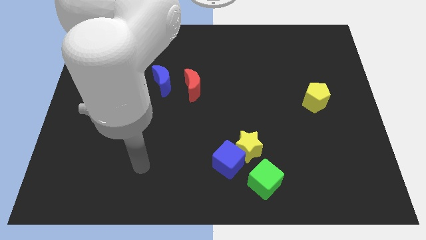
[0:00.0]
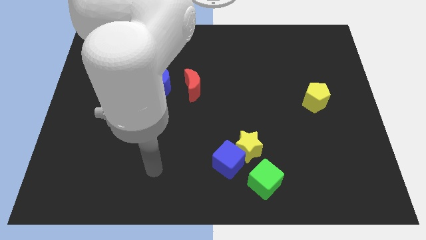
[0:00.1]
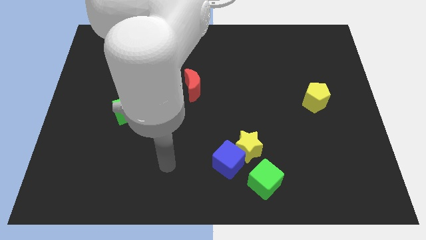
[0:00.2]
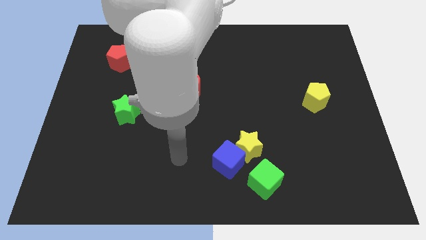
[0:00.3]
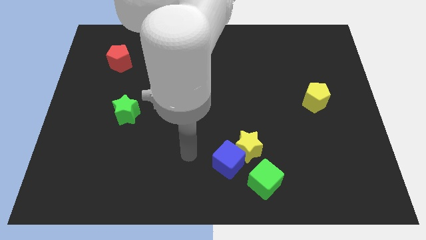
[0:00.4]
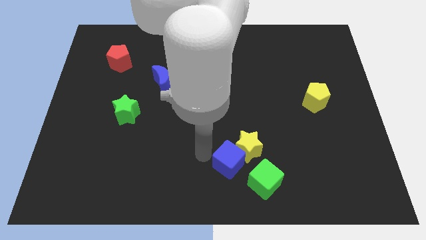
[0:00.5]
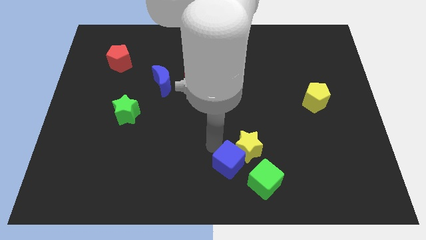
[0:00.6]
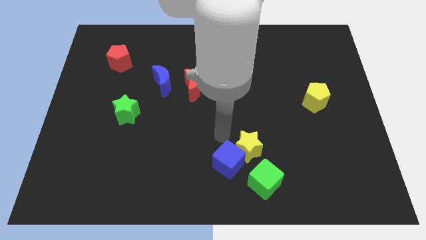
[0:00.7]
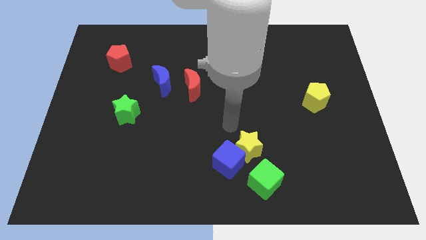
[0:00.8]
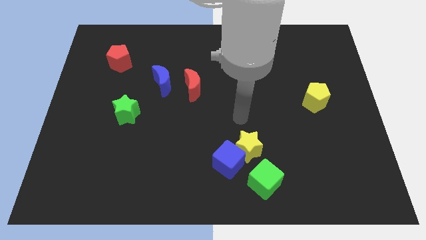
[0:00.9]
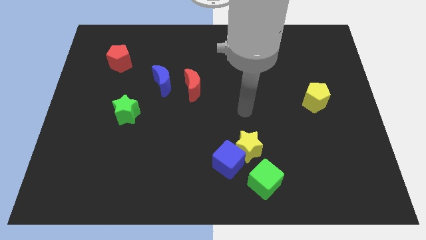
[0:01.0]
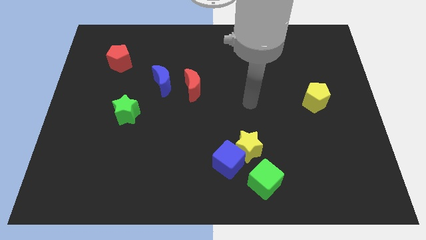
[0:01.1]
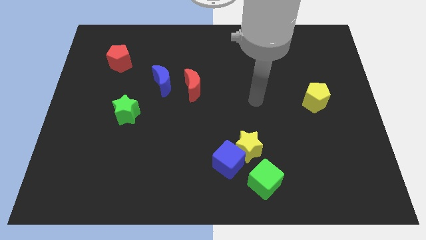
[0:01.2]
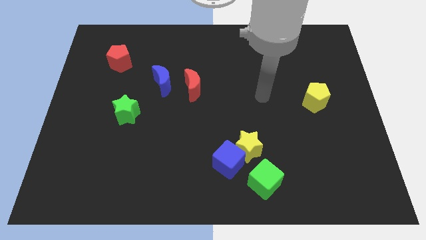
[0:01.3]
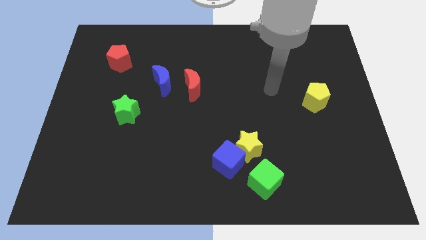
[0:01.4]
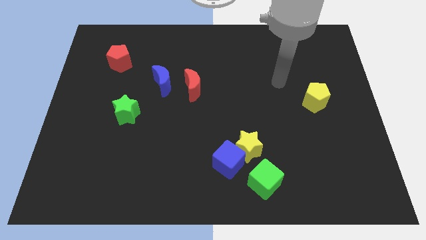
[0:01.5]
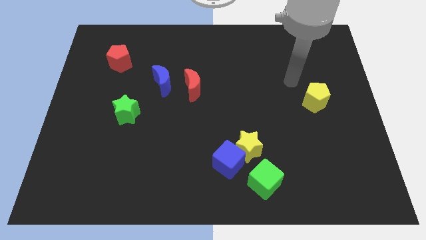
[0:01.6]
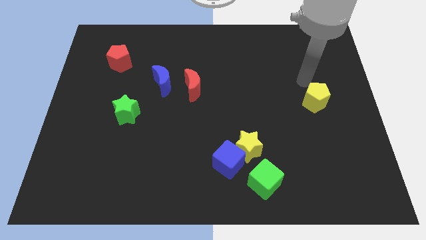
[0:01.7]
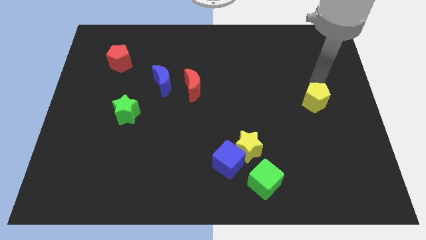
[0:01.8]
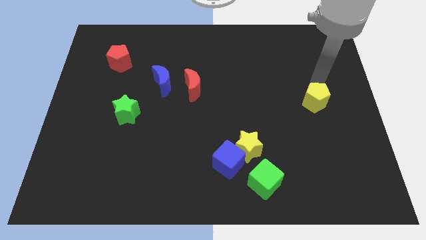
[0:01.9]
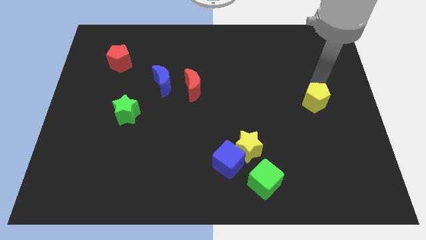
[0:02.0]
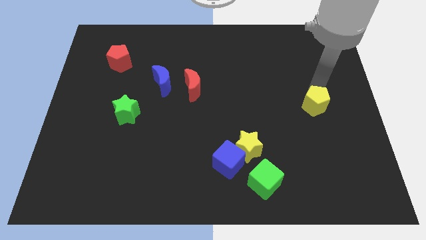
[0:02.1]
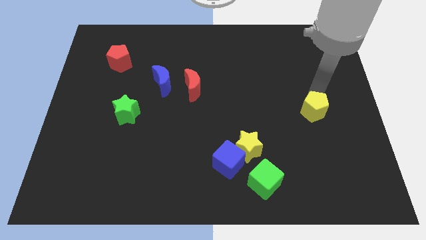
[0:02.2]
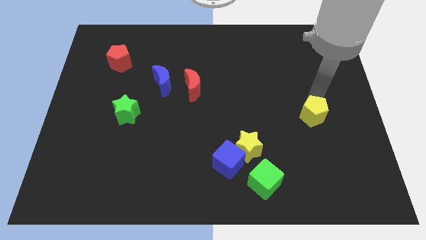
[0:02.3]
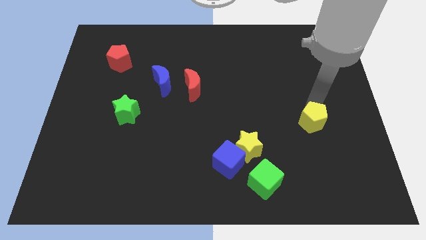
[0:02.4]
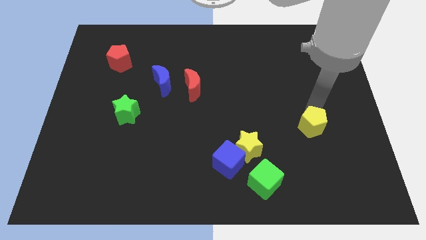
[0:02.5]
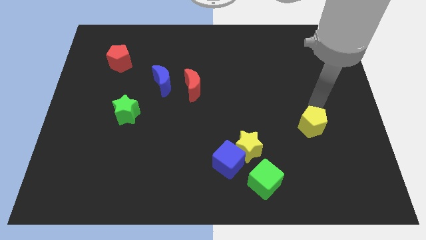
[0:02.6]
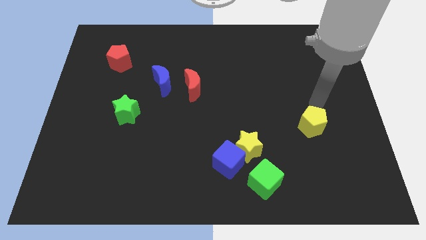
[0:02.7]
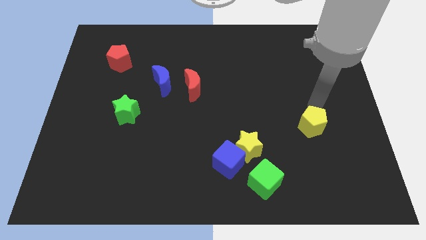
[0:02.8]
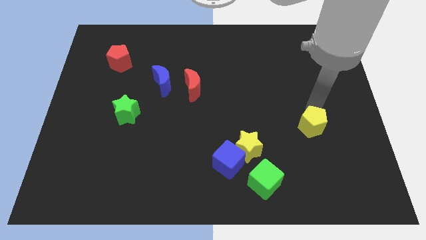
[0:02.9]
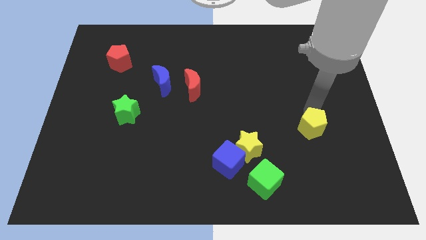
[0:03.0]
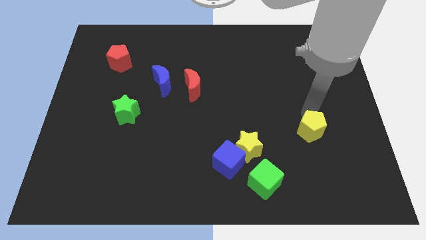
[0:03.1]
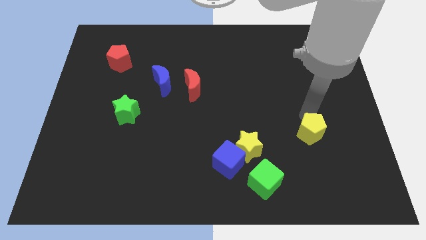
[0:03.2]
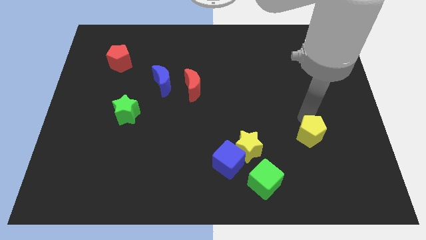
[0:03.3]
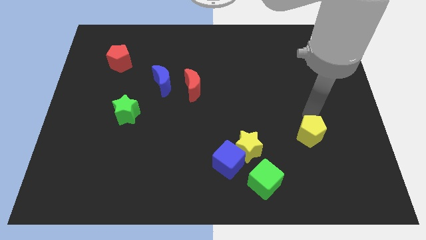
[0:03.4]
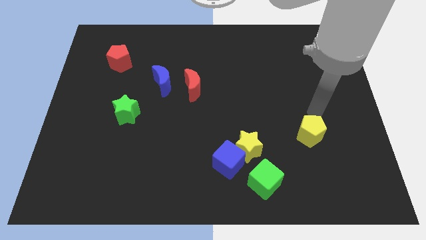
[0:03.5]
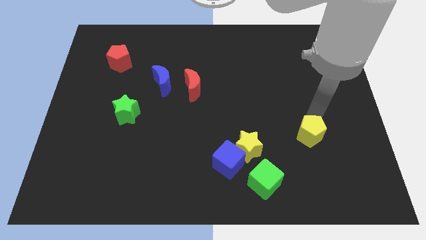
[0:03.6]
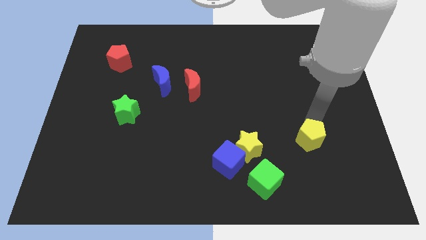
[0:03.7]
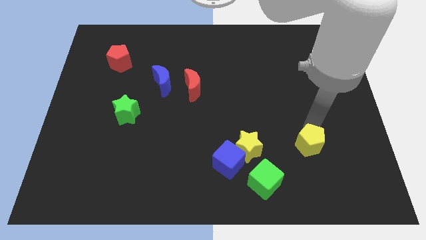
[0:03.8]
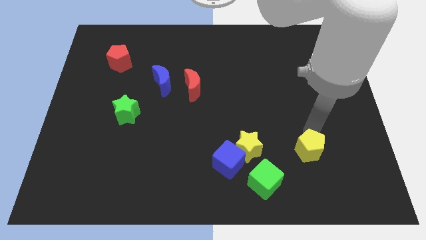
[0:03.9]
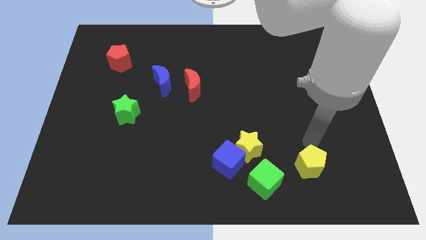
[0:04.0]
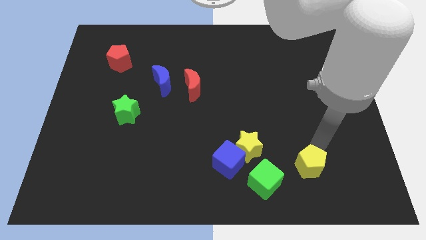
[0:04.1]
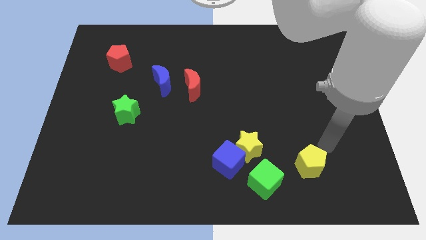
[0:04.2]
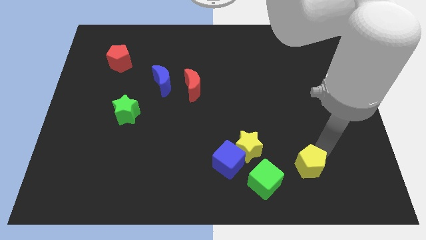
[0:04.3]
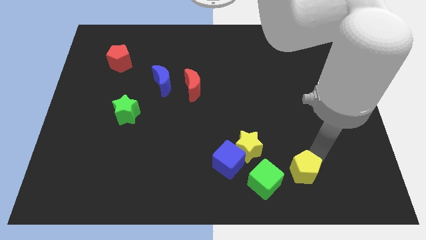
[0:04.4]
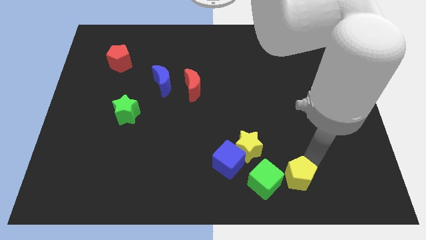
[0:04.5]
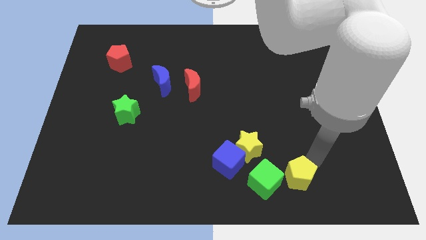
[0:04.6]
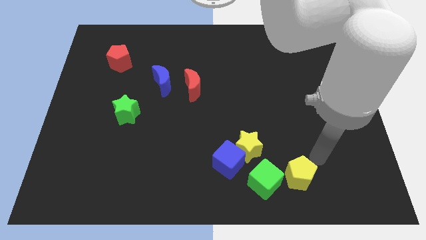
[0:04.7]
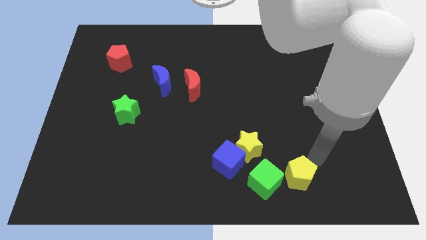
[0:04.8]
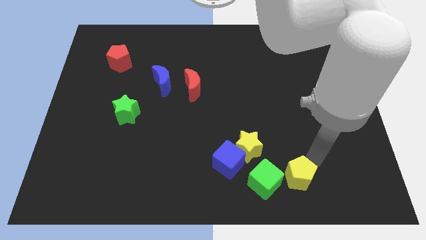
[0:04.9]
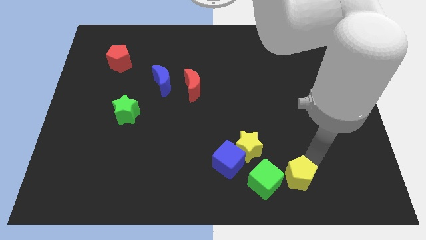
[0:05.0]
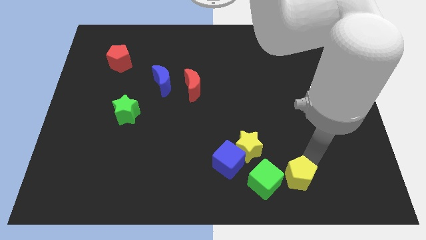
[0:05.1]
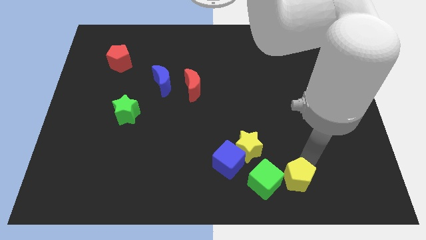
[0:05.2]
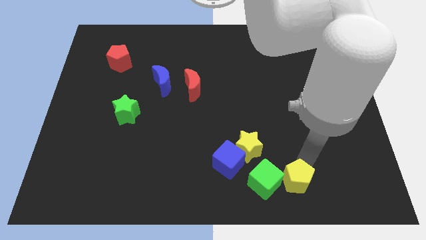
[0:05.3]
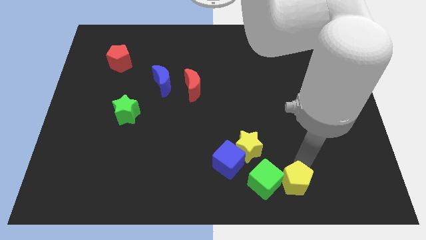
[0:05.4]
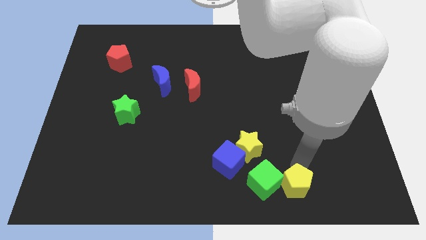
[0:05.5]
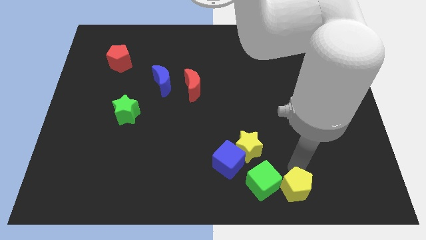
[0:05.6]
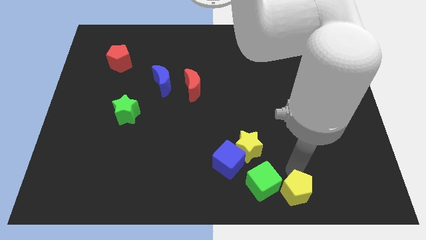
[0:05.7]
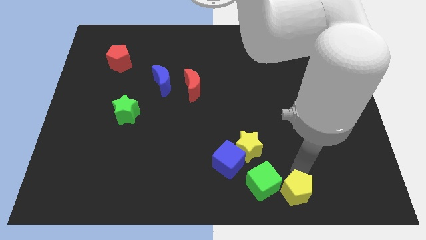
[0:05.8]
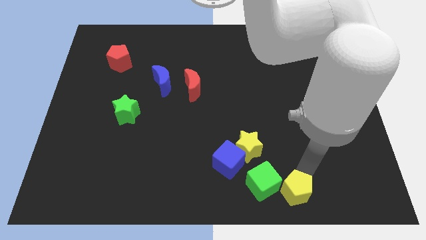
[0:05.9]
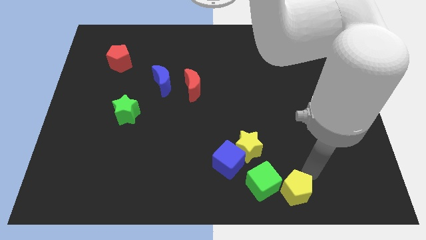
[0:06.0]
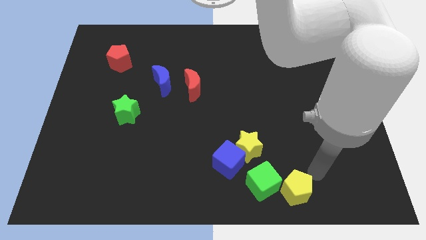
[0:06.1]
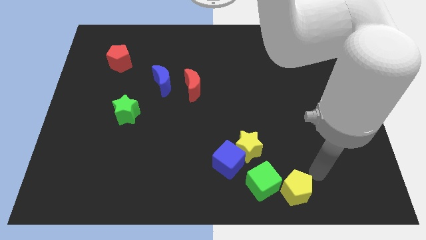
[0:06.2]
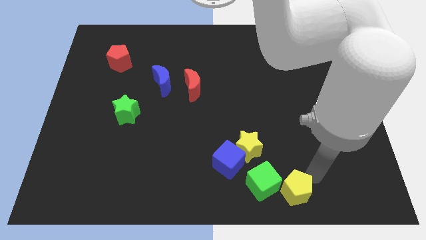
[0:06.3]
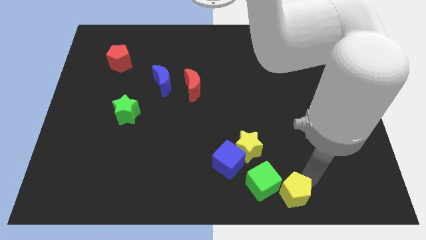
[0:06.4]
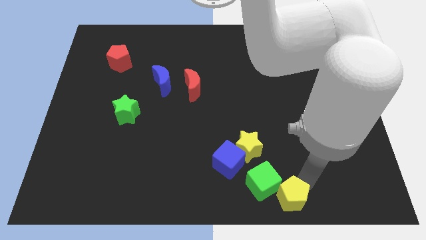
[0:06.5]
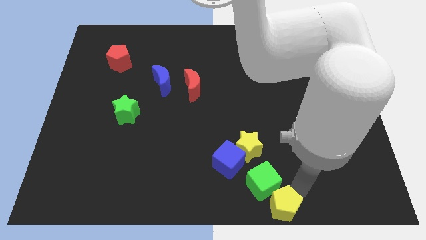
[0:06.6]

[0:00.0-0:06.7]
push the yellow pentagon to the bottom
